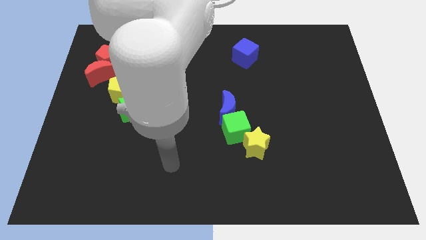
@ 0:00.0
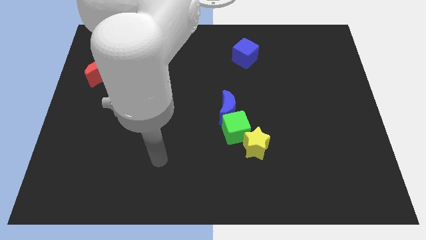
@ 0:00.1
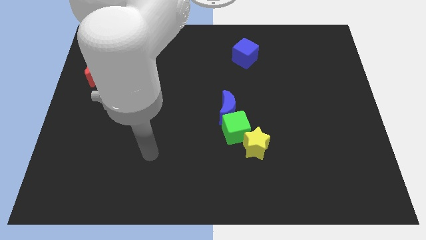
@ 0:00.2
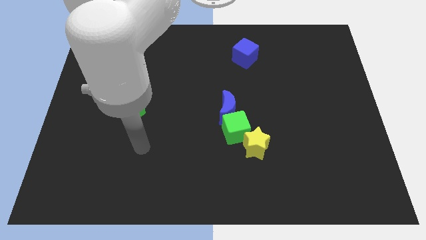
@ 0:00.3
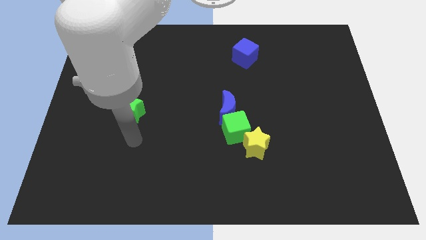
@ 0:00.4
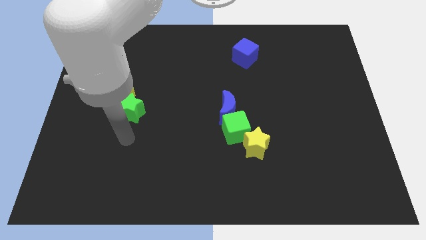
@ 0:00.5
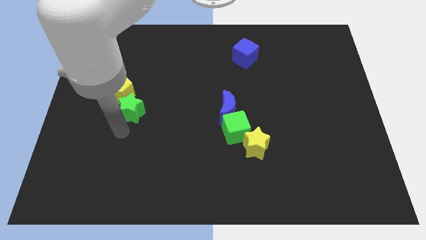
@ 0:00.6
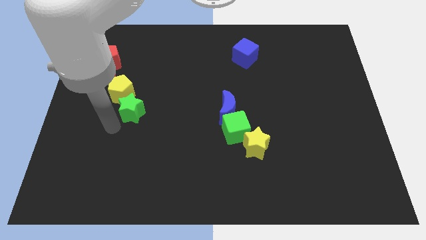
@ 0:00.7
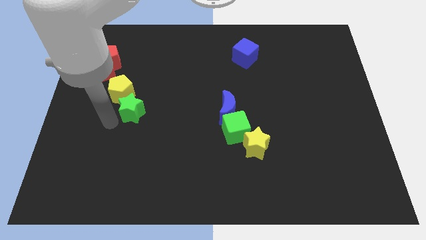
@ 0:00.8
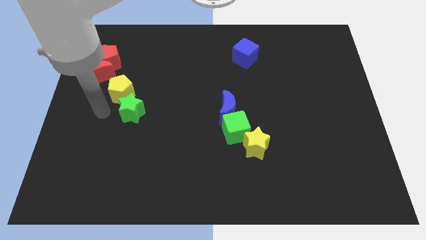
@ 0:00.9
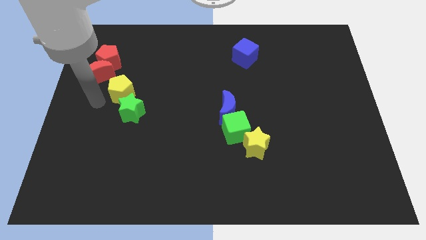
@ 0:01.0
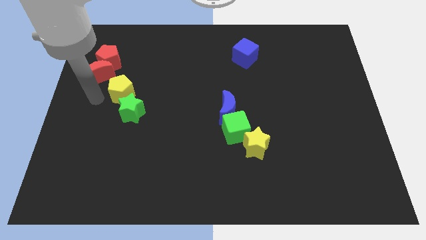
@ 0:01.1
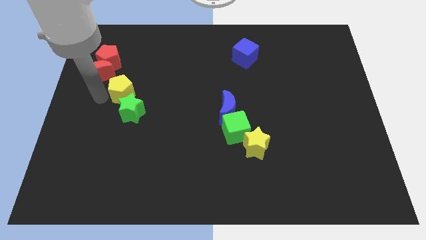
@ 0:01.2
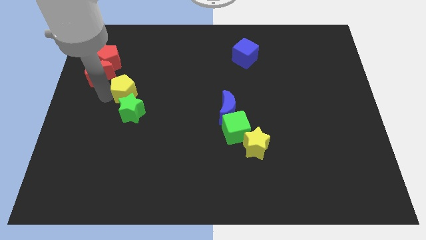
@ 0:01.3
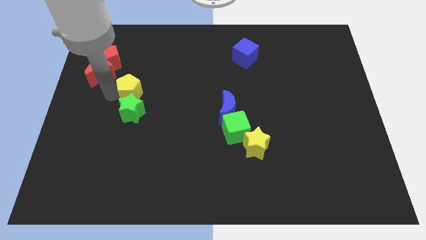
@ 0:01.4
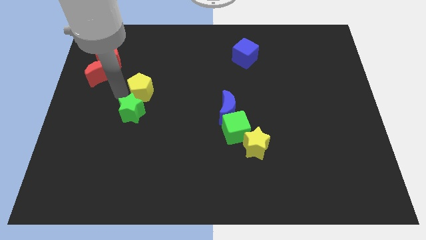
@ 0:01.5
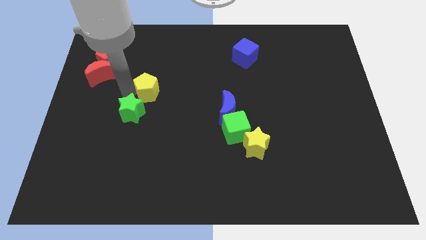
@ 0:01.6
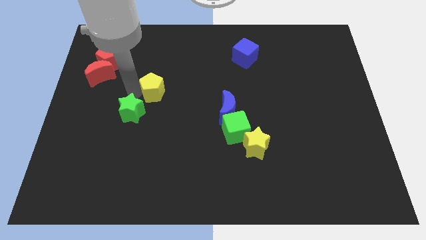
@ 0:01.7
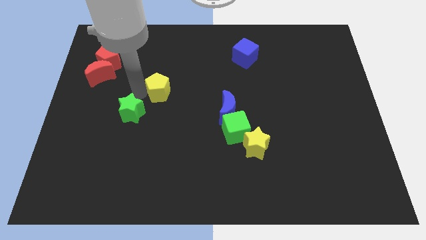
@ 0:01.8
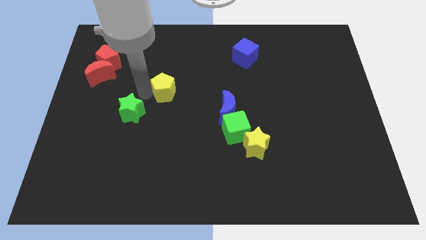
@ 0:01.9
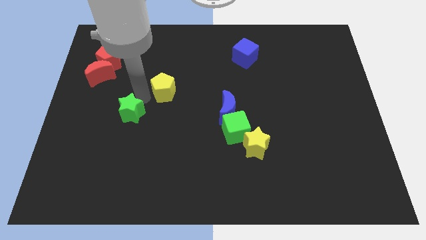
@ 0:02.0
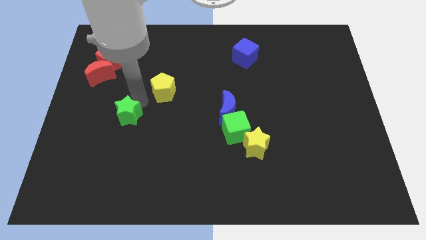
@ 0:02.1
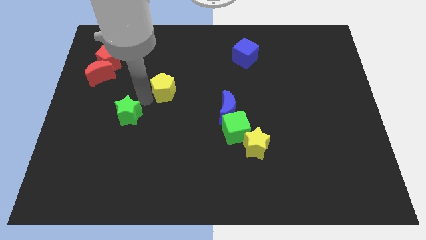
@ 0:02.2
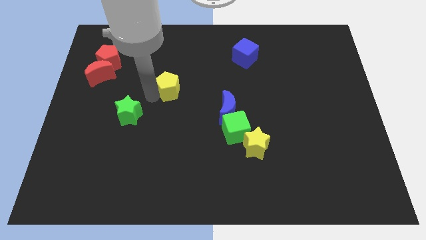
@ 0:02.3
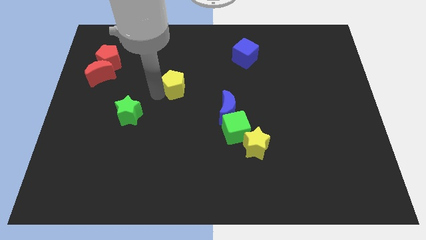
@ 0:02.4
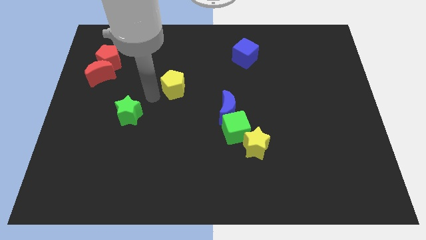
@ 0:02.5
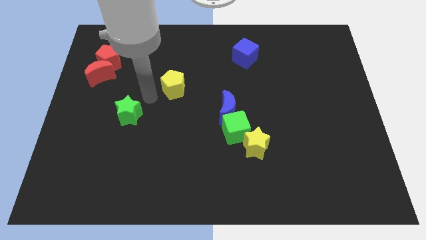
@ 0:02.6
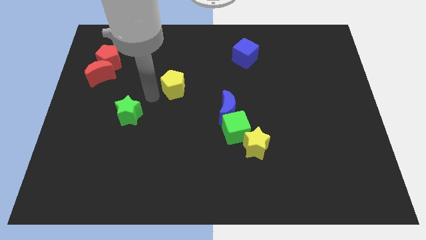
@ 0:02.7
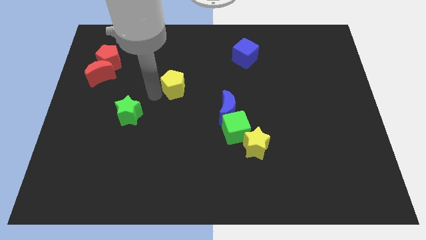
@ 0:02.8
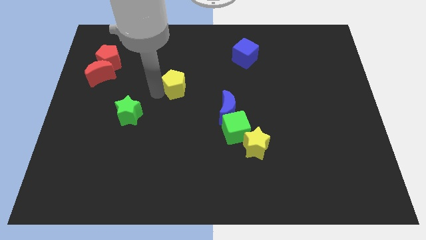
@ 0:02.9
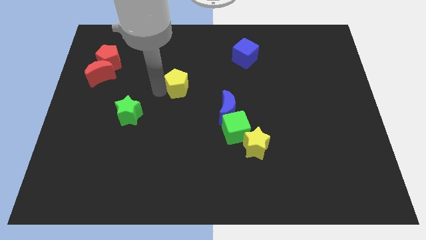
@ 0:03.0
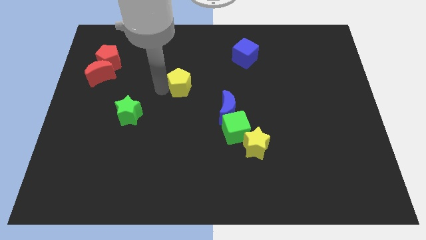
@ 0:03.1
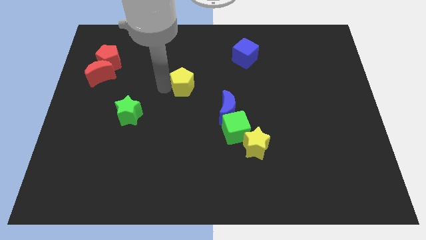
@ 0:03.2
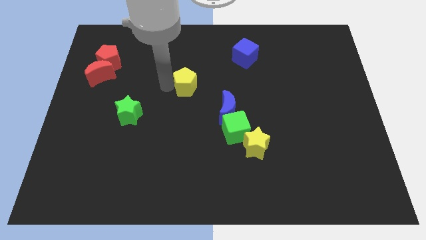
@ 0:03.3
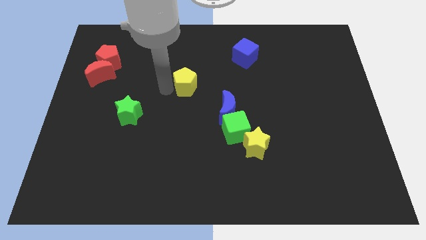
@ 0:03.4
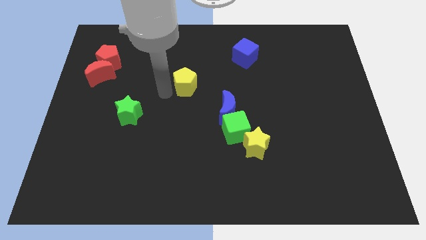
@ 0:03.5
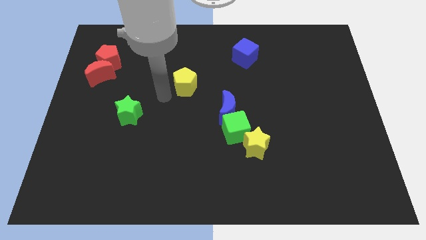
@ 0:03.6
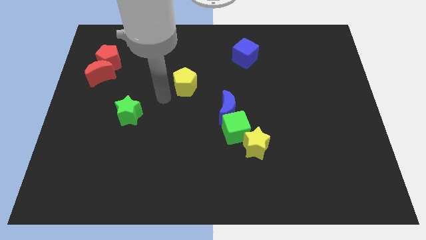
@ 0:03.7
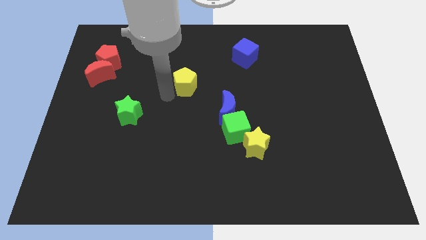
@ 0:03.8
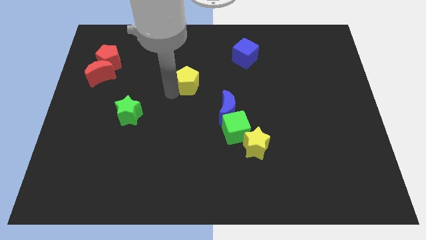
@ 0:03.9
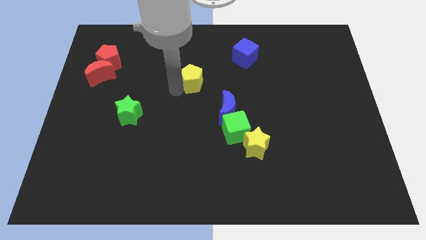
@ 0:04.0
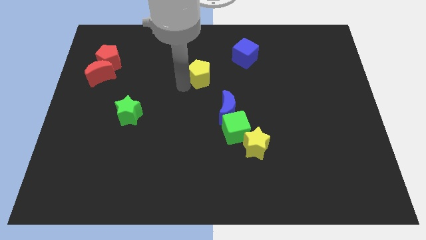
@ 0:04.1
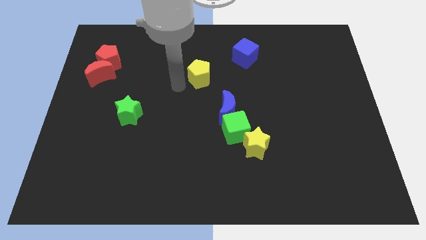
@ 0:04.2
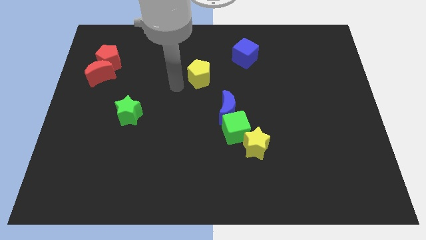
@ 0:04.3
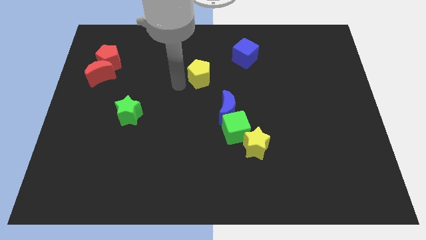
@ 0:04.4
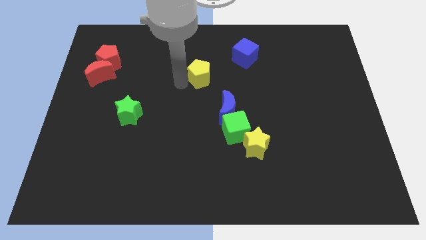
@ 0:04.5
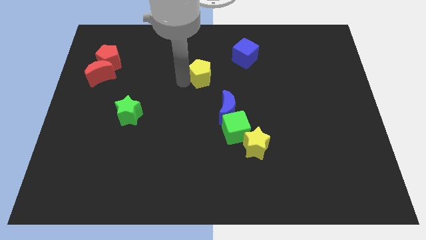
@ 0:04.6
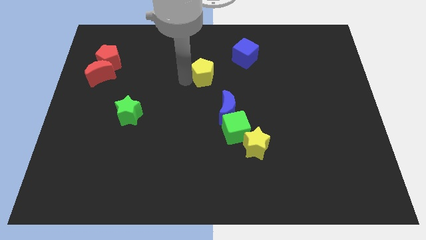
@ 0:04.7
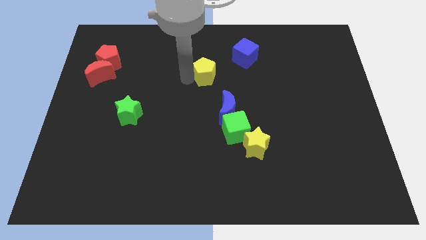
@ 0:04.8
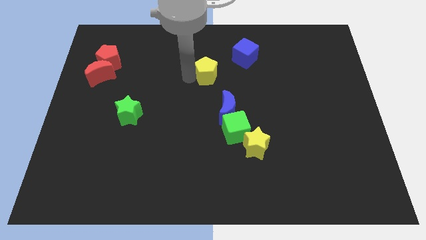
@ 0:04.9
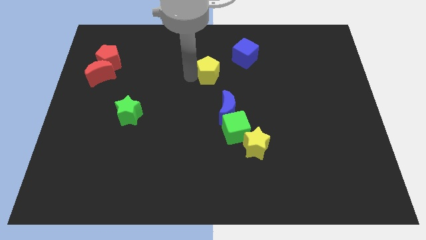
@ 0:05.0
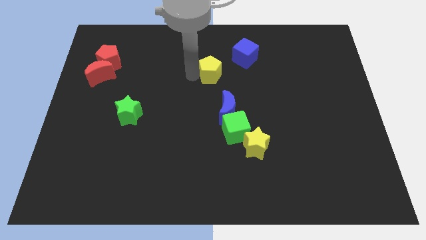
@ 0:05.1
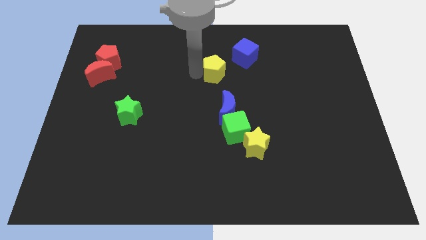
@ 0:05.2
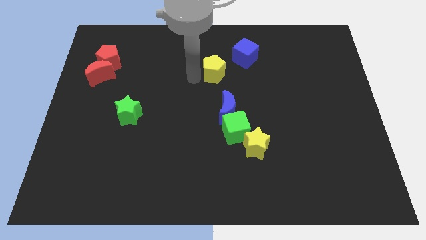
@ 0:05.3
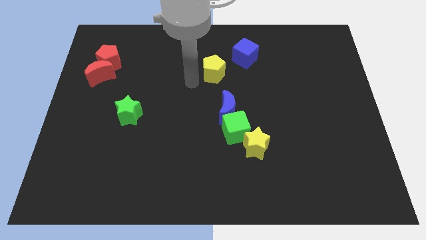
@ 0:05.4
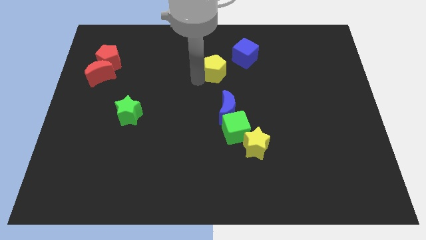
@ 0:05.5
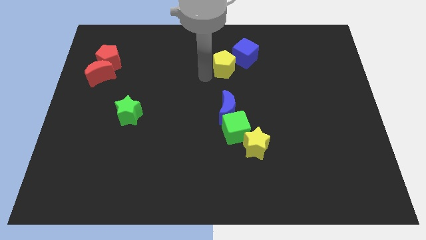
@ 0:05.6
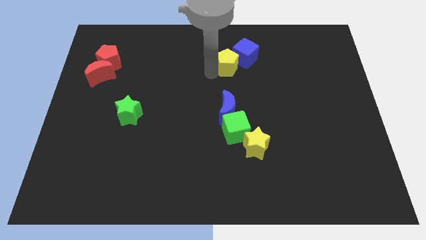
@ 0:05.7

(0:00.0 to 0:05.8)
push the yellow pentagon next to the blue cube
